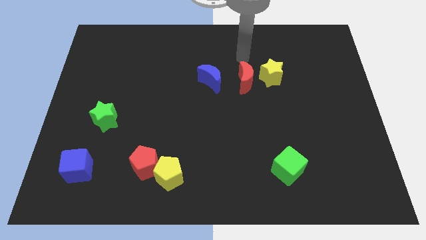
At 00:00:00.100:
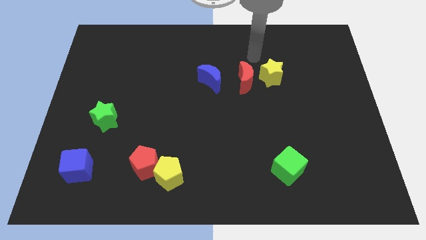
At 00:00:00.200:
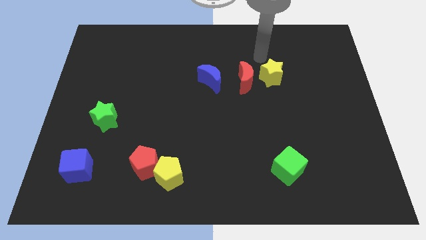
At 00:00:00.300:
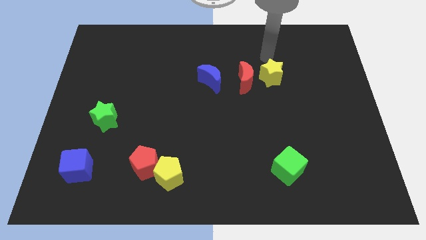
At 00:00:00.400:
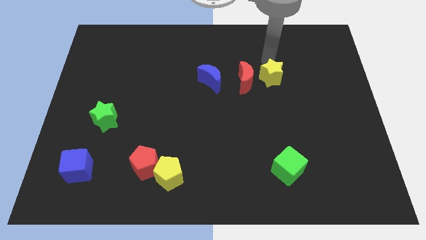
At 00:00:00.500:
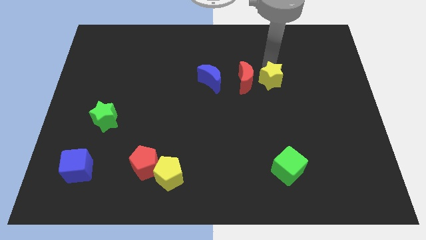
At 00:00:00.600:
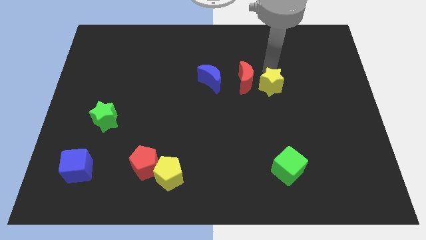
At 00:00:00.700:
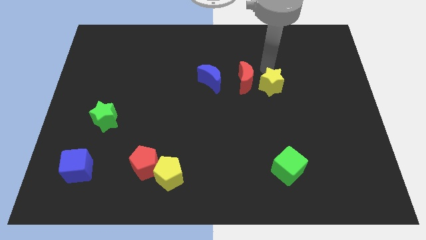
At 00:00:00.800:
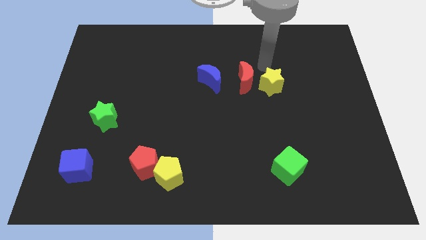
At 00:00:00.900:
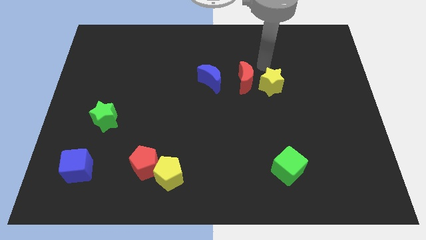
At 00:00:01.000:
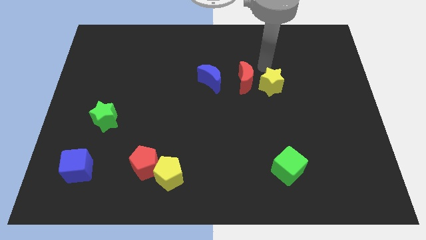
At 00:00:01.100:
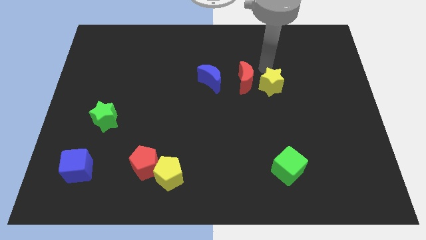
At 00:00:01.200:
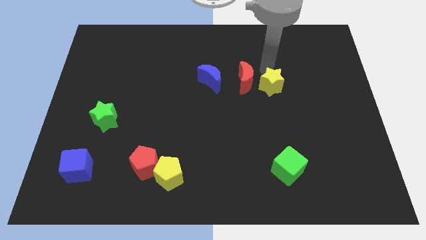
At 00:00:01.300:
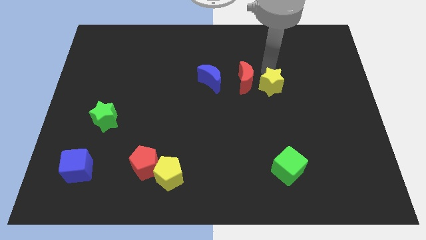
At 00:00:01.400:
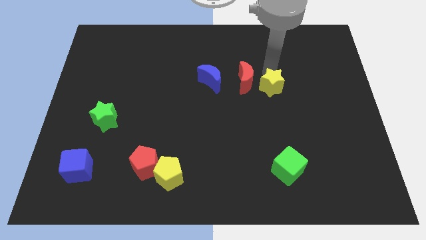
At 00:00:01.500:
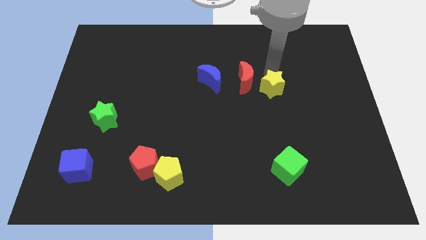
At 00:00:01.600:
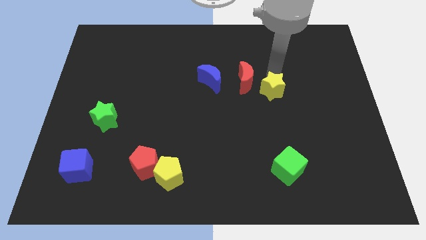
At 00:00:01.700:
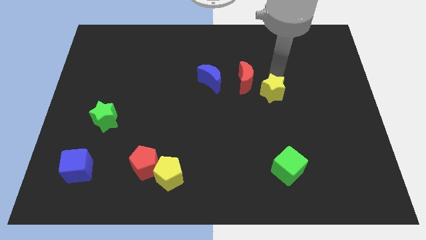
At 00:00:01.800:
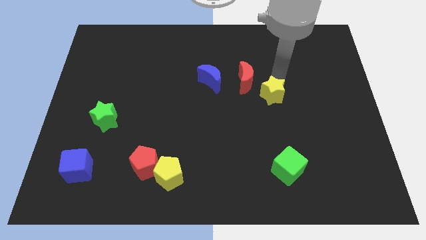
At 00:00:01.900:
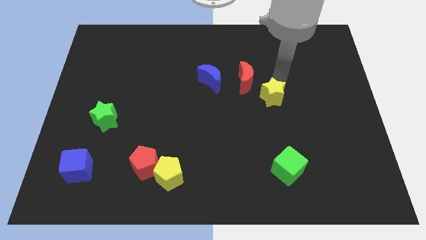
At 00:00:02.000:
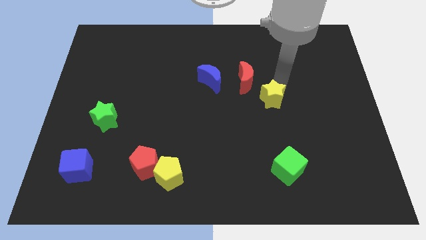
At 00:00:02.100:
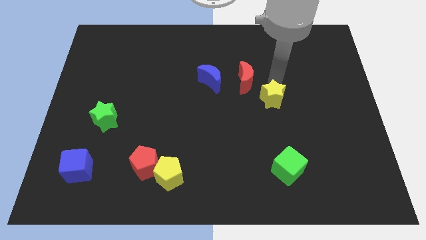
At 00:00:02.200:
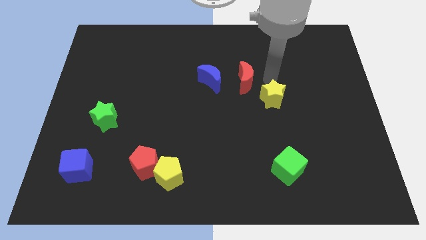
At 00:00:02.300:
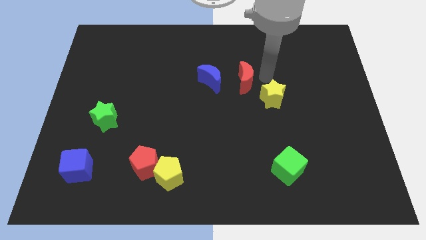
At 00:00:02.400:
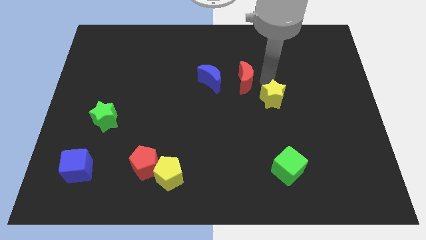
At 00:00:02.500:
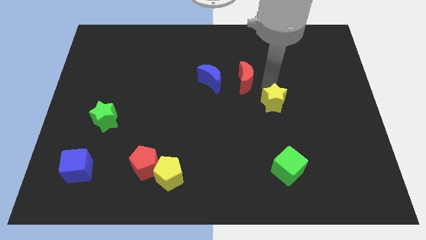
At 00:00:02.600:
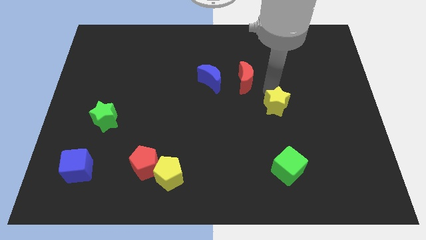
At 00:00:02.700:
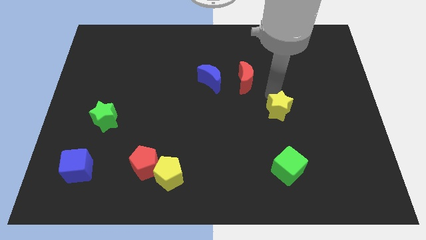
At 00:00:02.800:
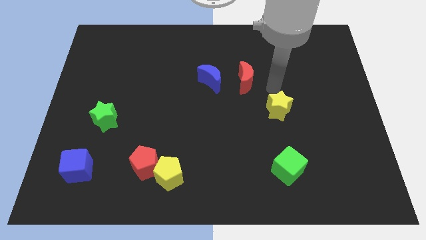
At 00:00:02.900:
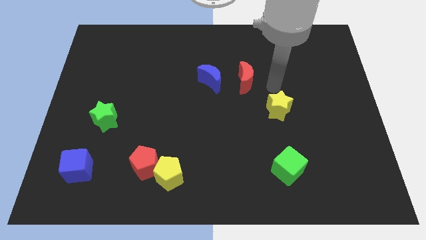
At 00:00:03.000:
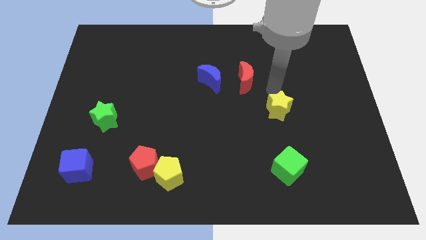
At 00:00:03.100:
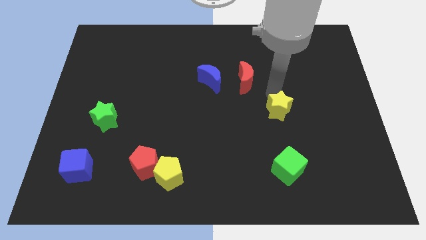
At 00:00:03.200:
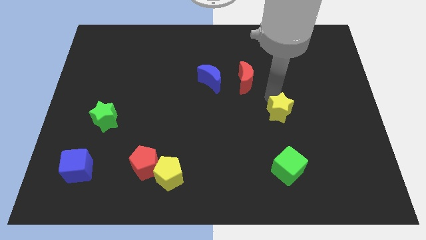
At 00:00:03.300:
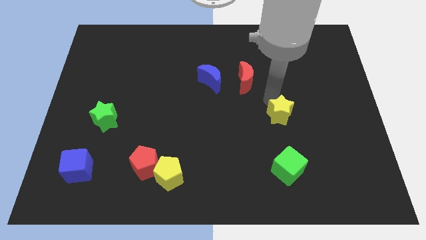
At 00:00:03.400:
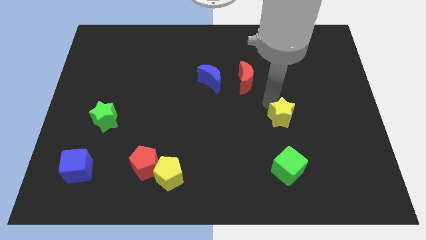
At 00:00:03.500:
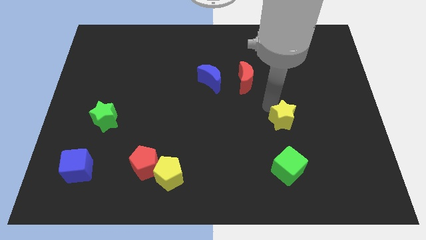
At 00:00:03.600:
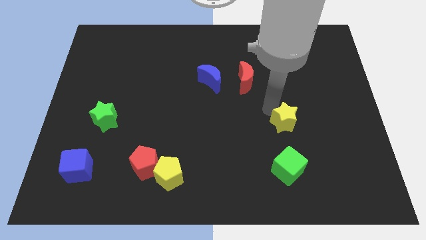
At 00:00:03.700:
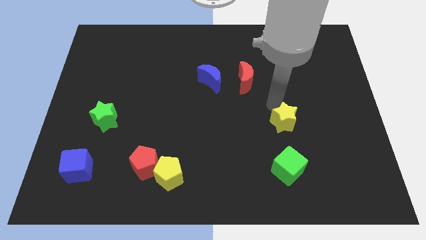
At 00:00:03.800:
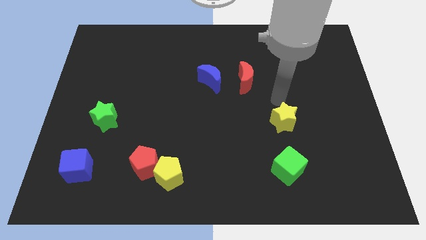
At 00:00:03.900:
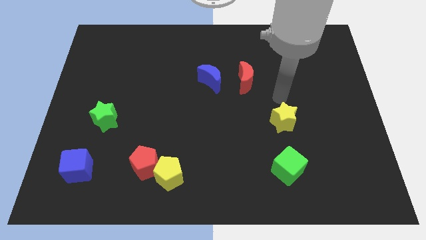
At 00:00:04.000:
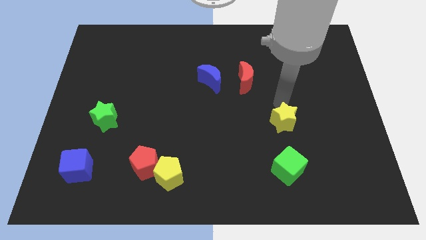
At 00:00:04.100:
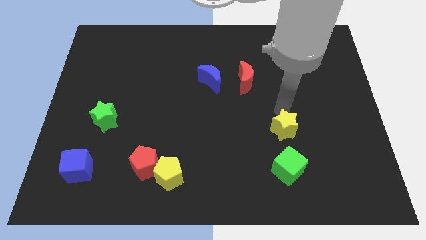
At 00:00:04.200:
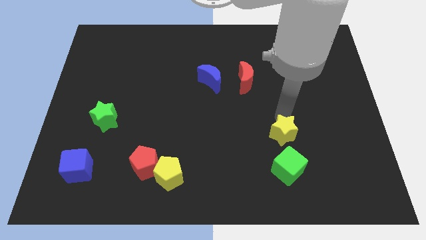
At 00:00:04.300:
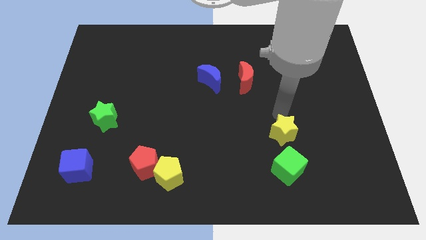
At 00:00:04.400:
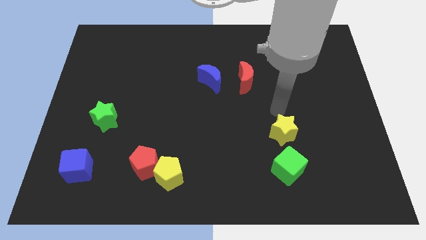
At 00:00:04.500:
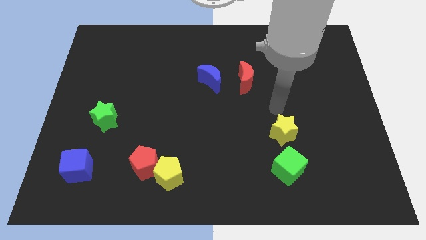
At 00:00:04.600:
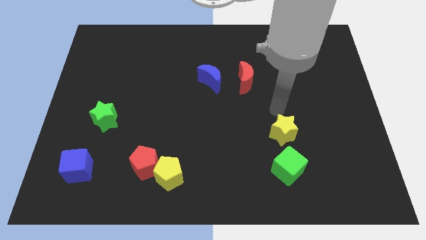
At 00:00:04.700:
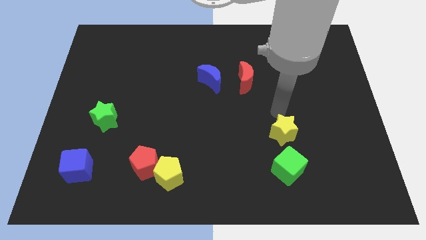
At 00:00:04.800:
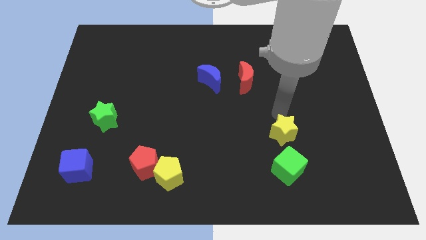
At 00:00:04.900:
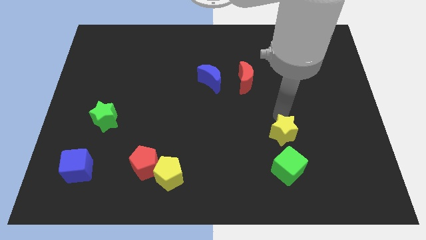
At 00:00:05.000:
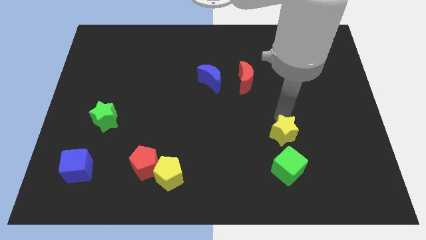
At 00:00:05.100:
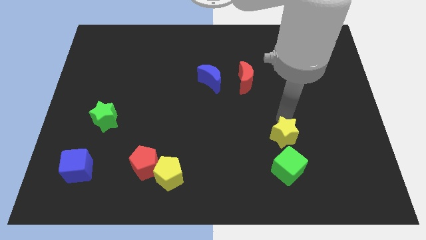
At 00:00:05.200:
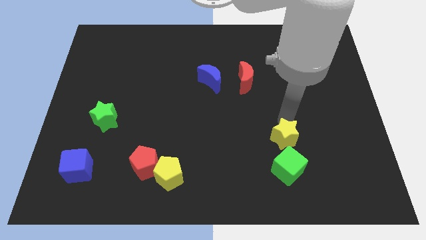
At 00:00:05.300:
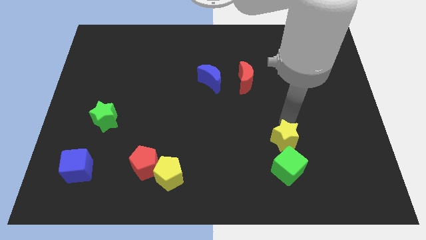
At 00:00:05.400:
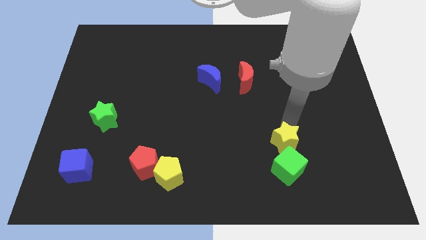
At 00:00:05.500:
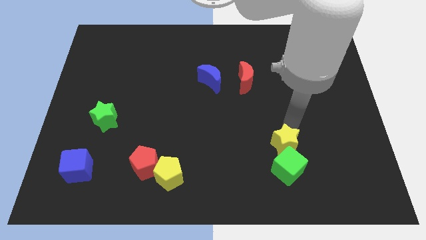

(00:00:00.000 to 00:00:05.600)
move the yellow star next to the green cube

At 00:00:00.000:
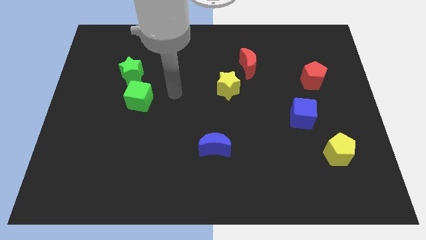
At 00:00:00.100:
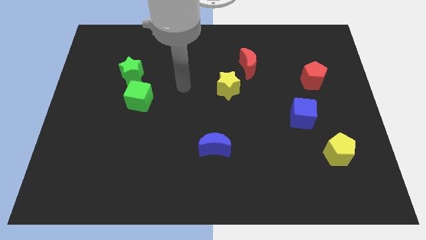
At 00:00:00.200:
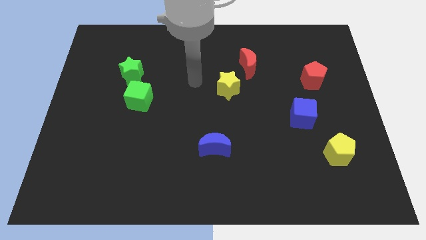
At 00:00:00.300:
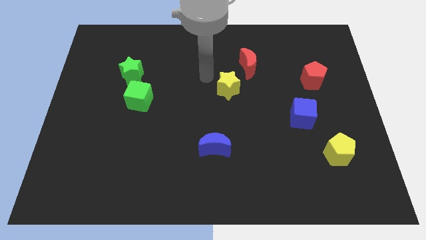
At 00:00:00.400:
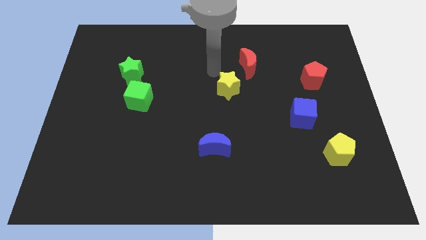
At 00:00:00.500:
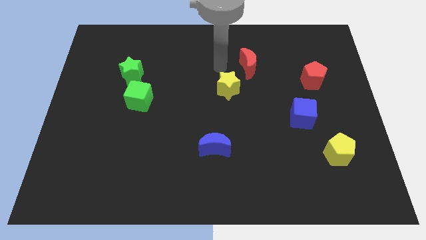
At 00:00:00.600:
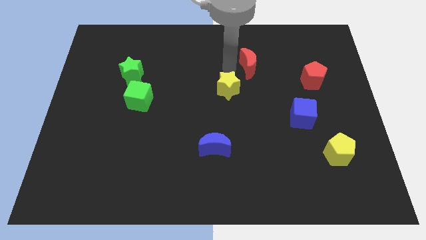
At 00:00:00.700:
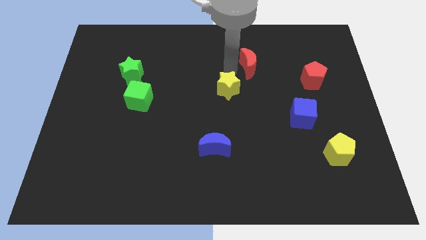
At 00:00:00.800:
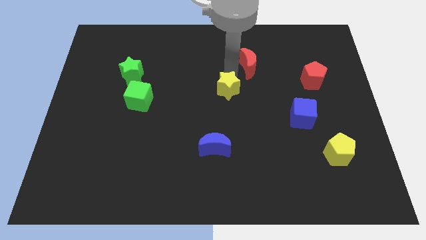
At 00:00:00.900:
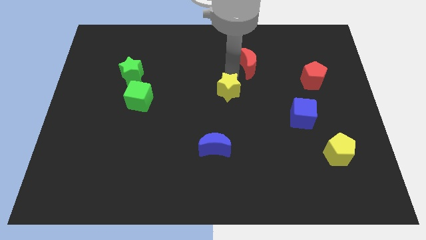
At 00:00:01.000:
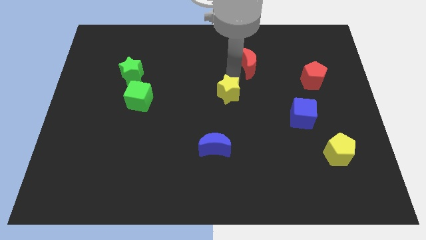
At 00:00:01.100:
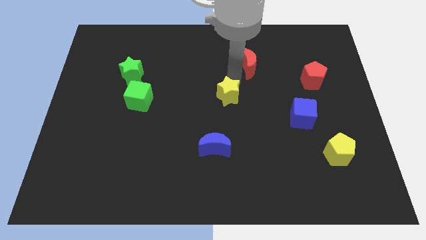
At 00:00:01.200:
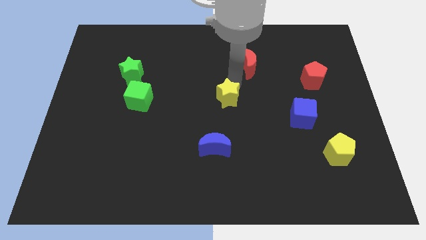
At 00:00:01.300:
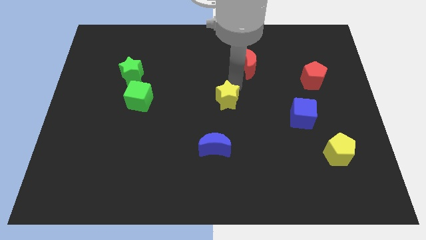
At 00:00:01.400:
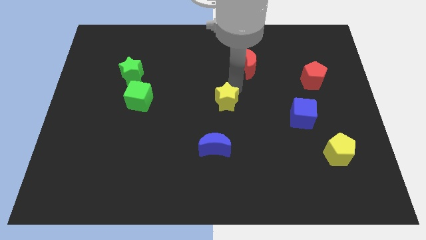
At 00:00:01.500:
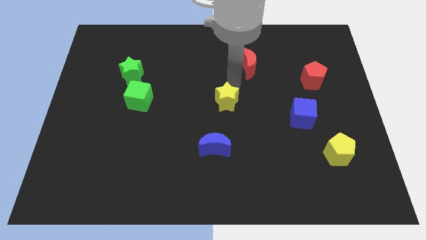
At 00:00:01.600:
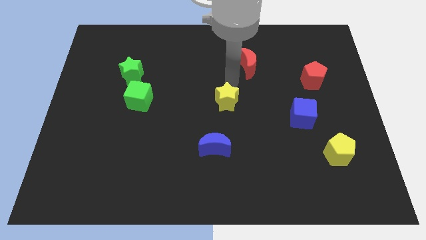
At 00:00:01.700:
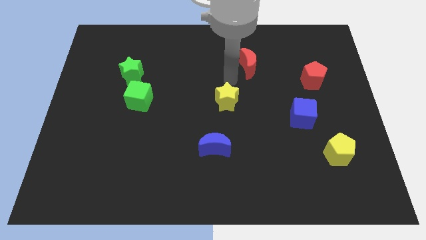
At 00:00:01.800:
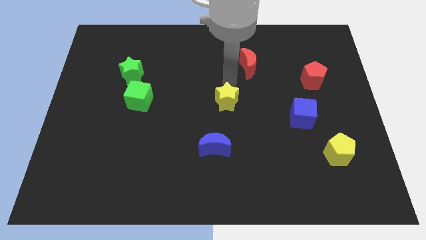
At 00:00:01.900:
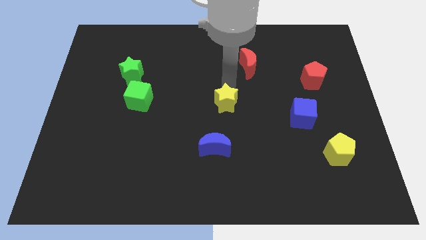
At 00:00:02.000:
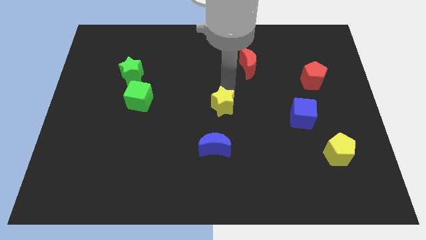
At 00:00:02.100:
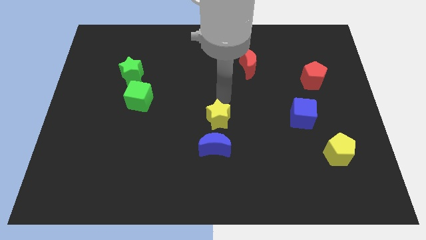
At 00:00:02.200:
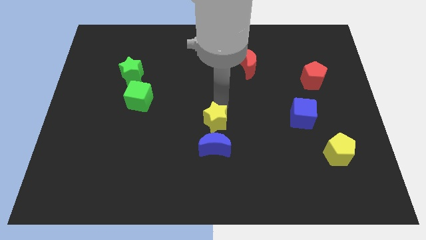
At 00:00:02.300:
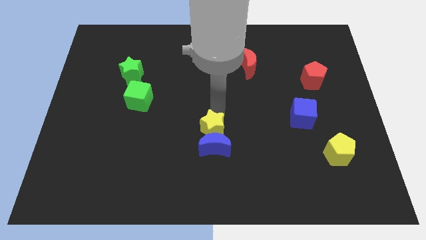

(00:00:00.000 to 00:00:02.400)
push the yellow star close to the blue moon
